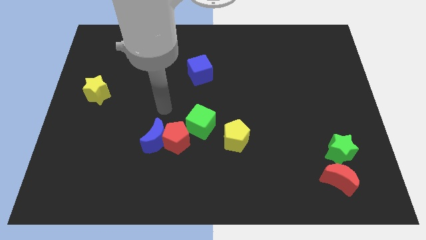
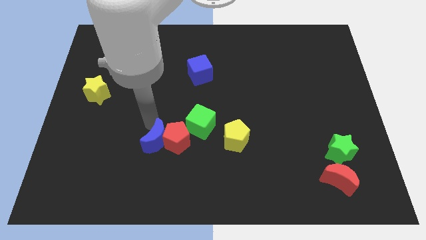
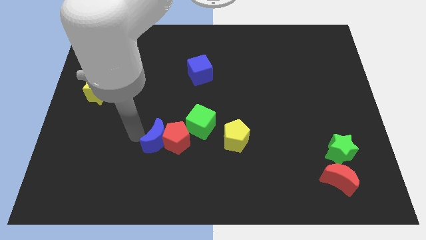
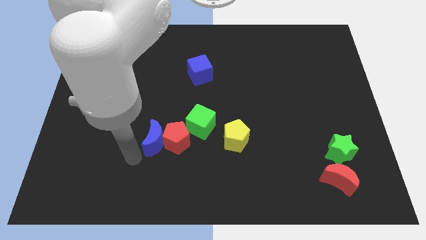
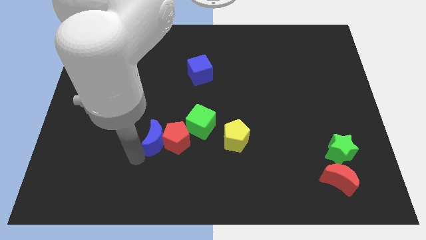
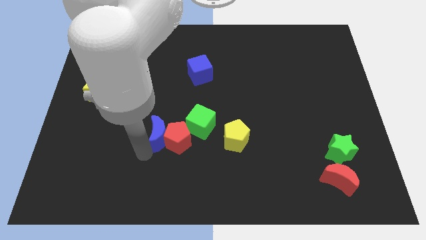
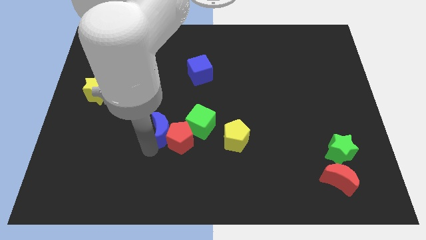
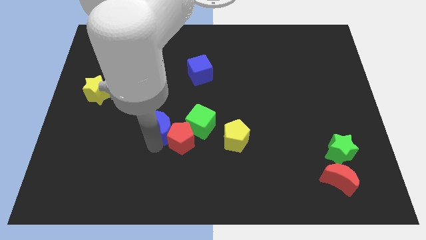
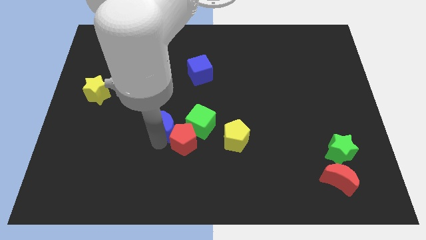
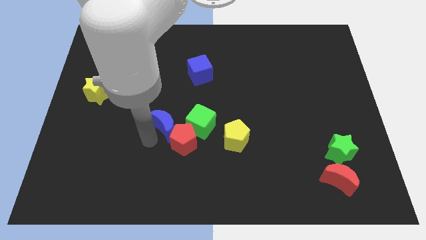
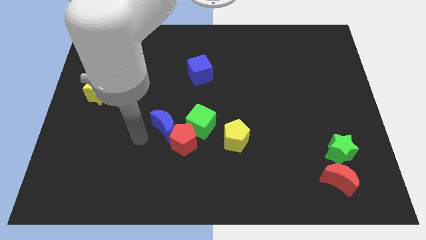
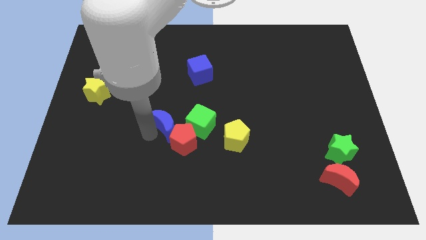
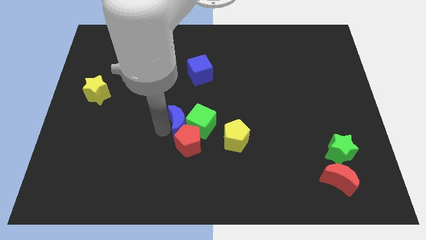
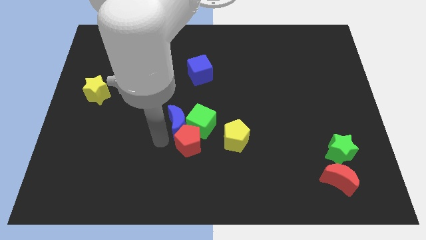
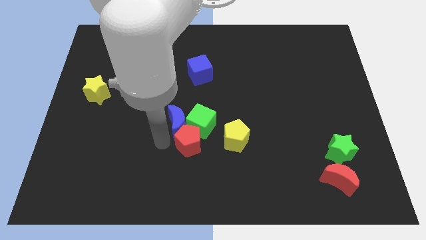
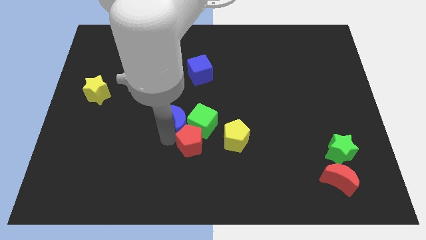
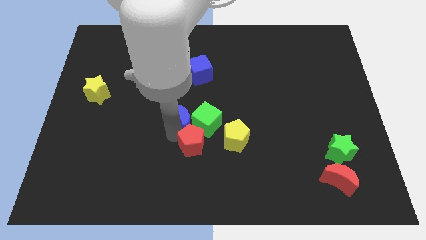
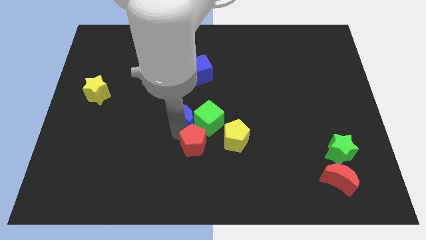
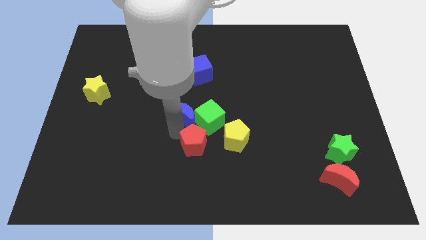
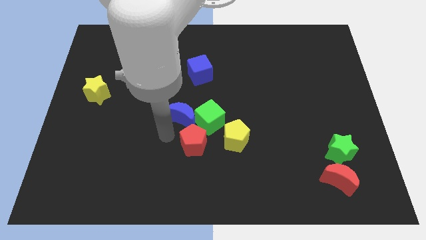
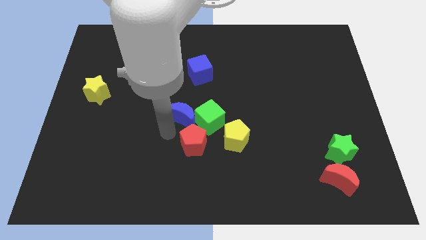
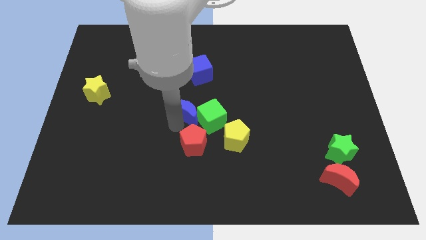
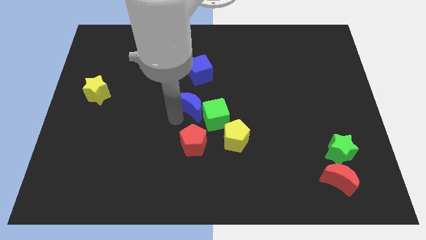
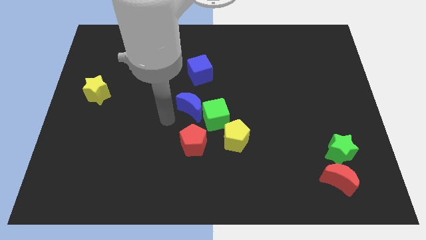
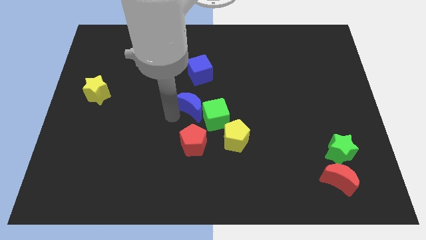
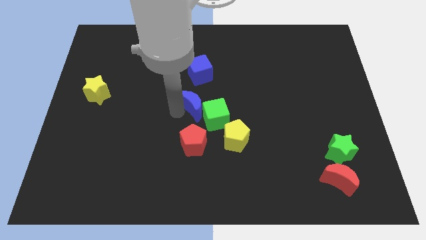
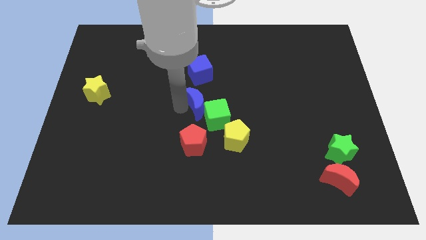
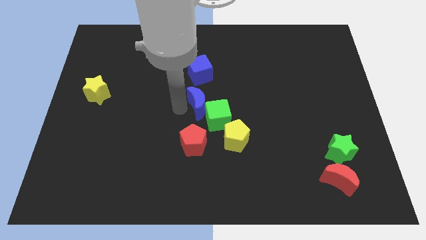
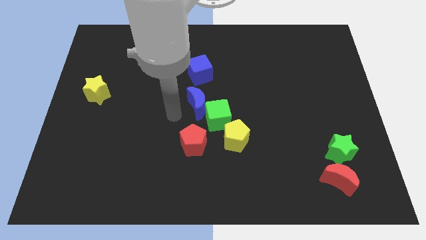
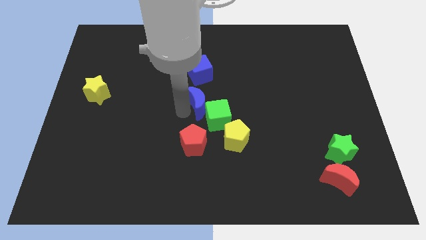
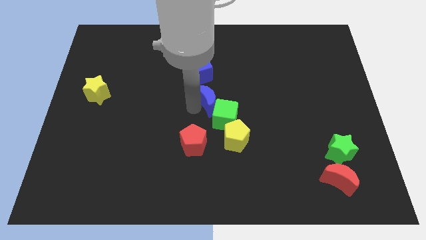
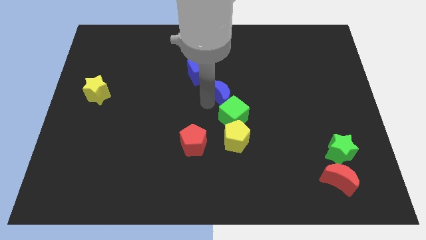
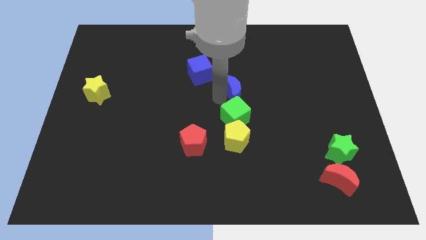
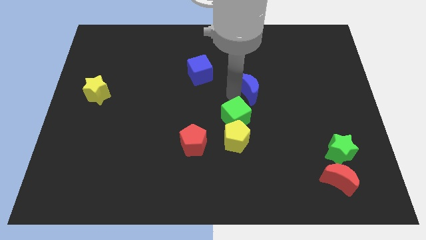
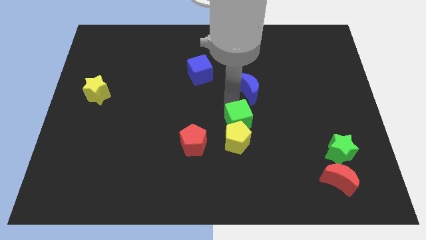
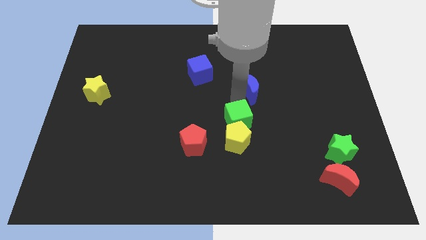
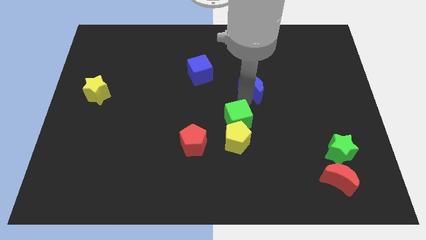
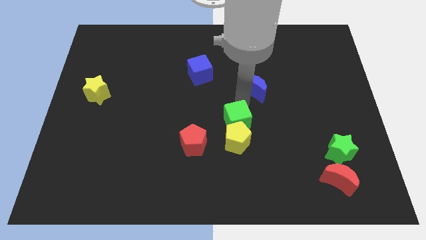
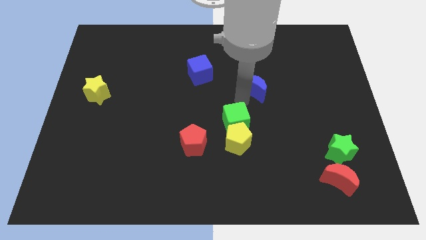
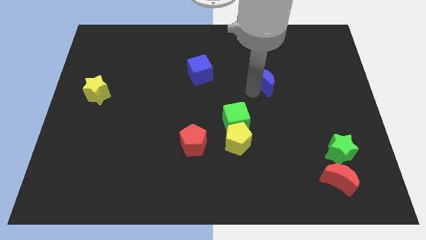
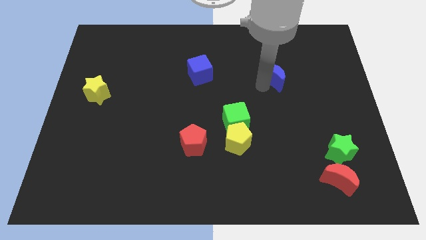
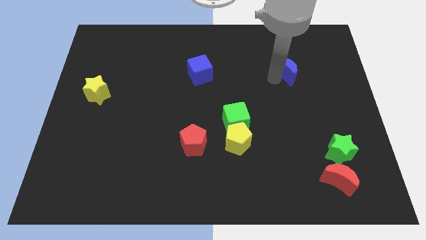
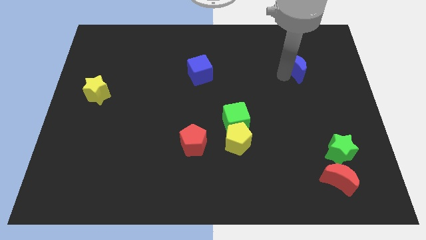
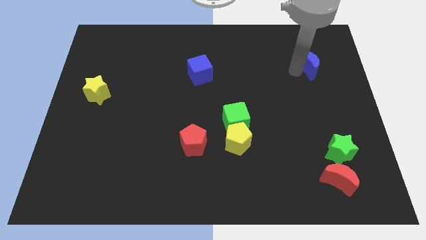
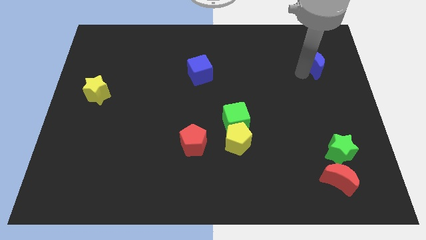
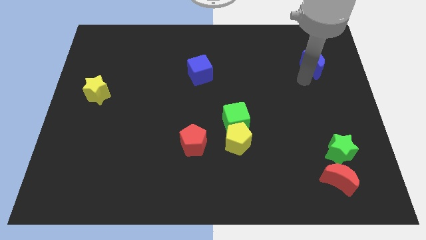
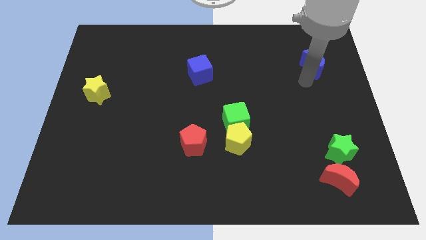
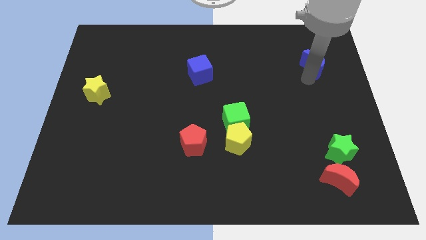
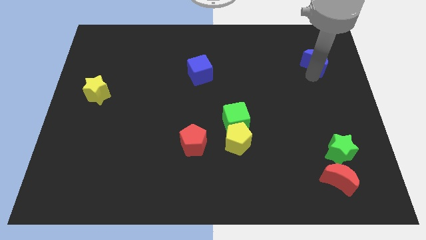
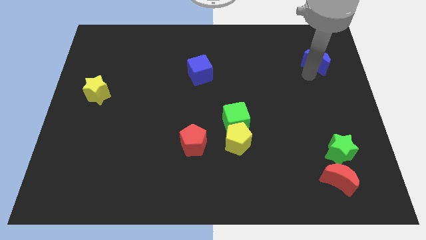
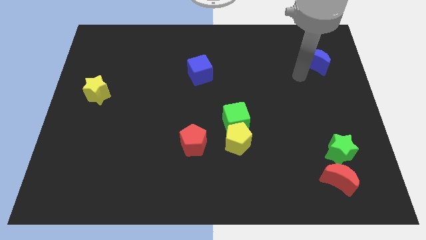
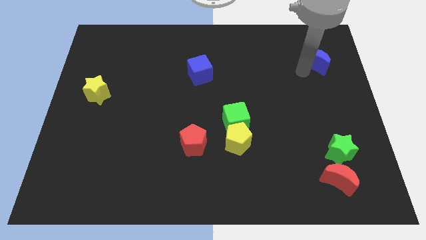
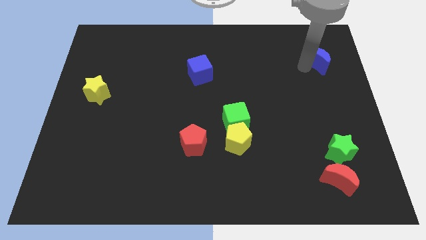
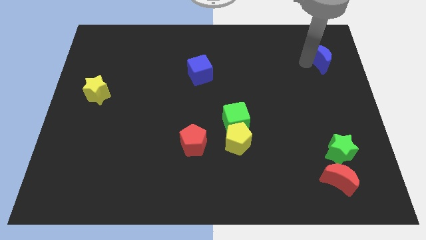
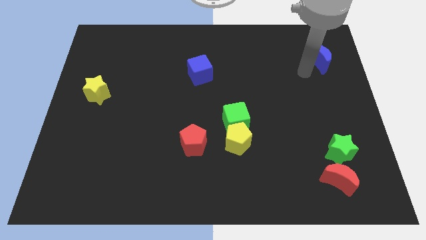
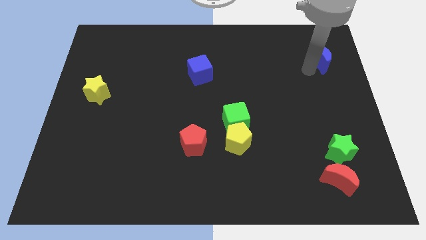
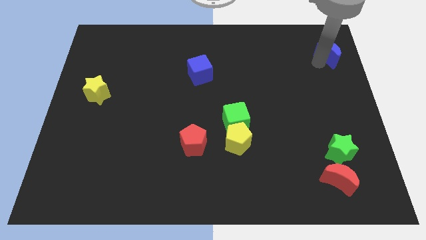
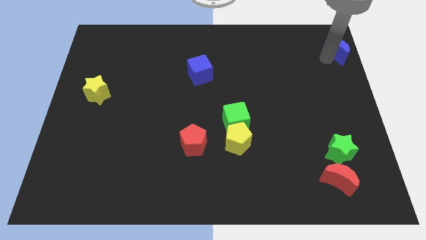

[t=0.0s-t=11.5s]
move the blue moon to the top right corner

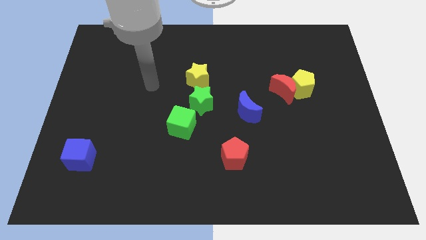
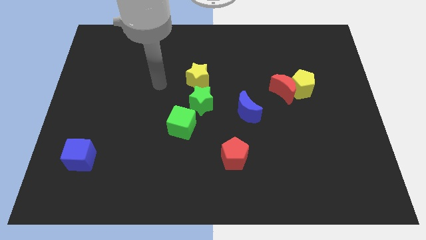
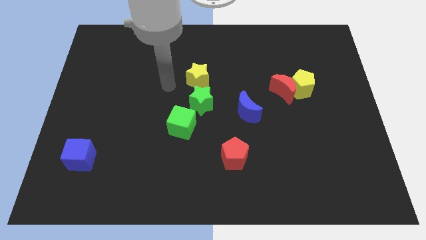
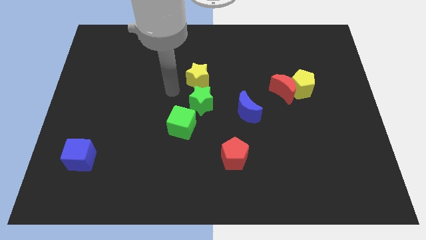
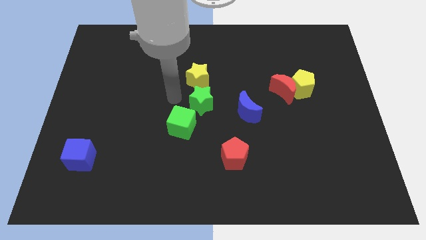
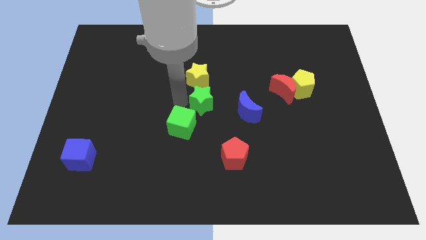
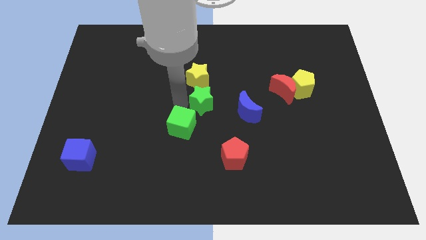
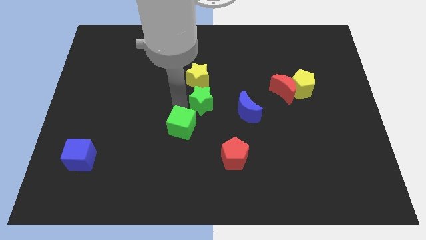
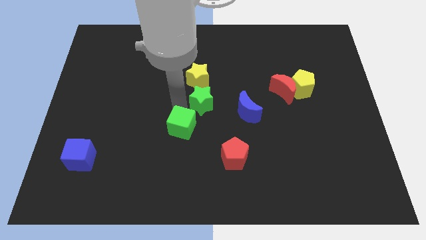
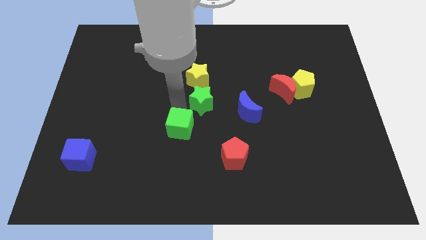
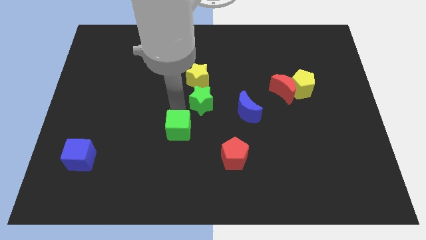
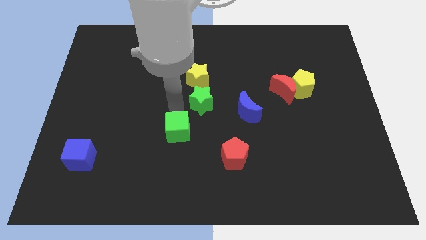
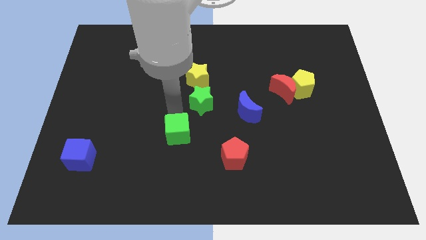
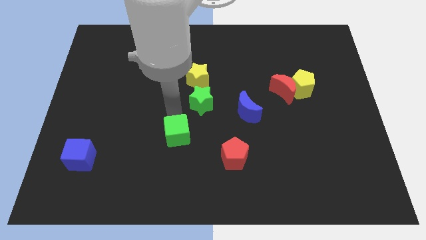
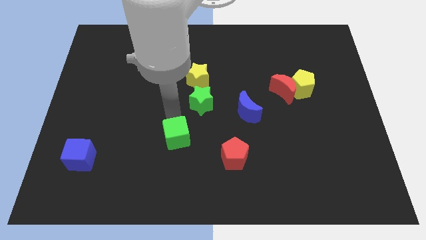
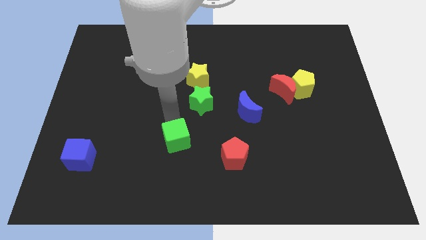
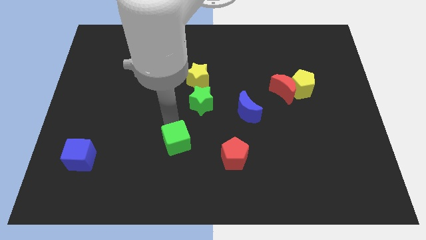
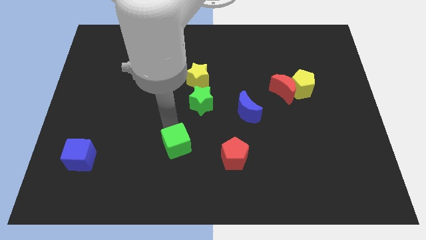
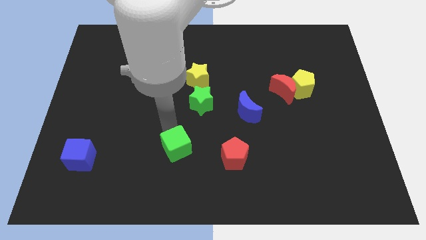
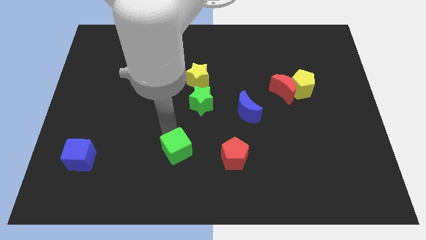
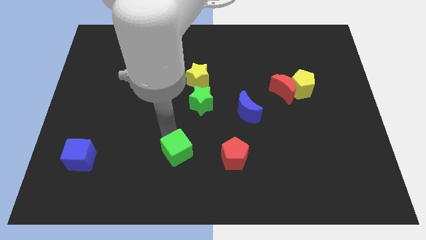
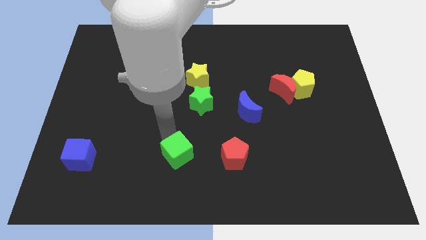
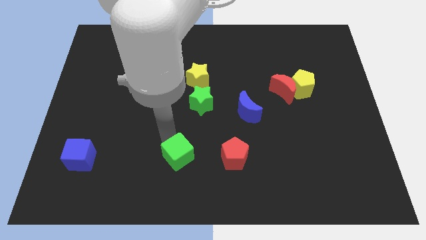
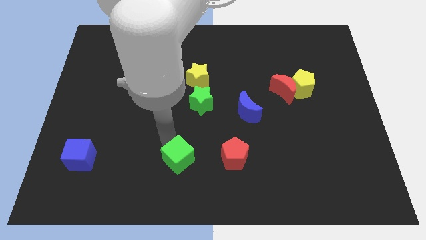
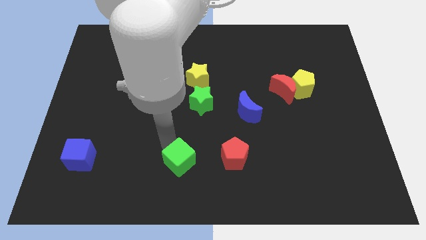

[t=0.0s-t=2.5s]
slide the green cube to the bottom
